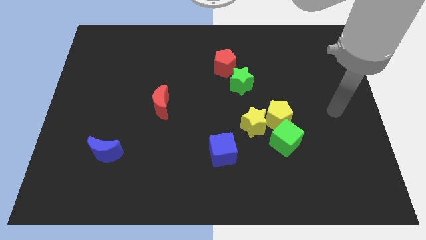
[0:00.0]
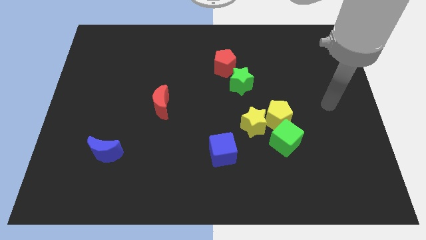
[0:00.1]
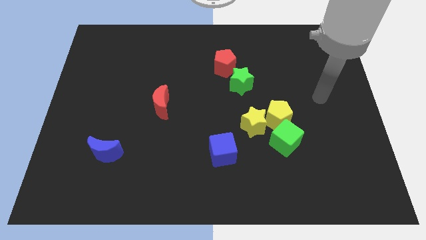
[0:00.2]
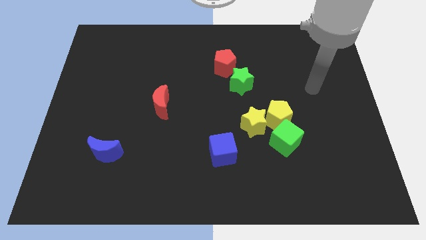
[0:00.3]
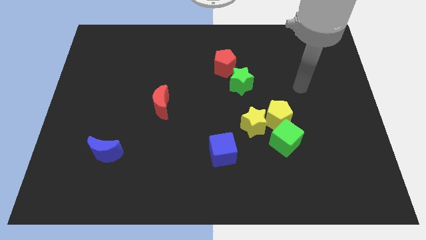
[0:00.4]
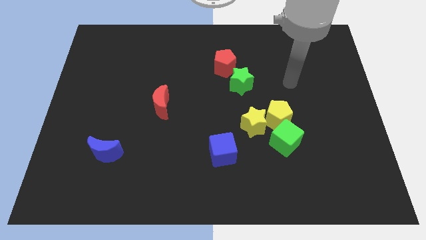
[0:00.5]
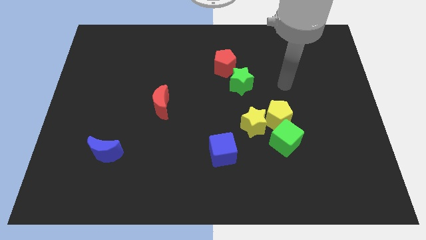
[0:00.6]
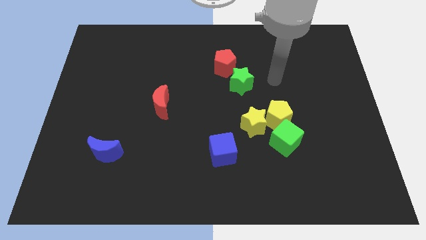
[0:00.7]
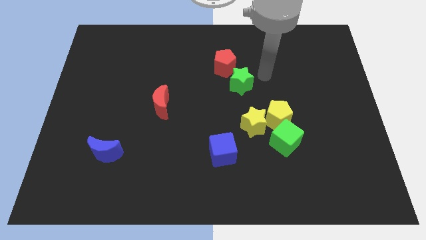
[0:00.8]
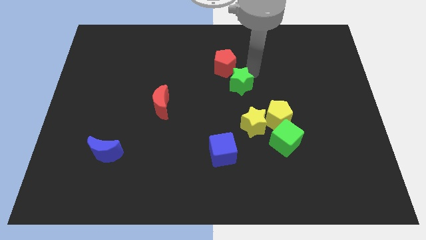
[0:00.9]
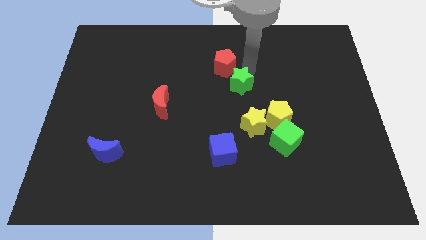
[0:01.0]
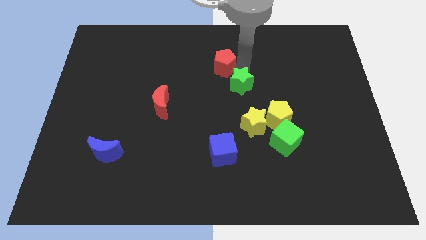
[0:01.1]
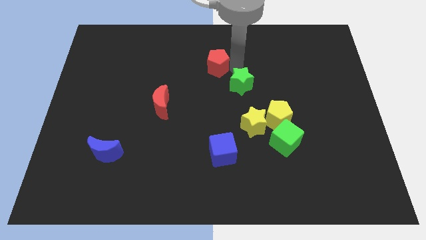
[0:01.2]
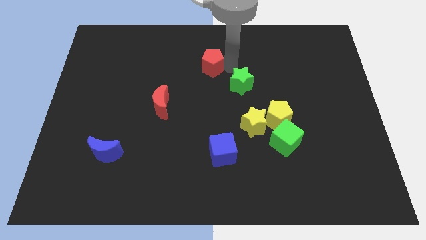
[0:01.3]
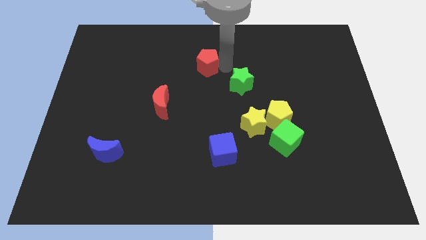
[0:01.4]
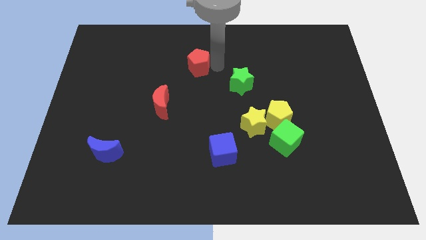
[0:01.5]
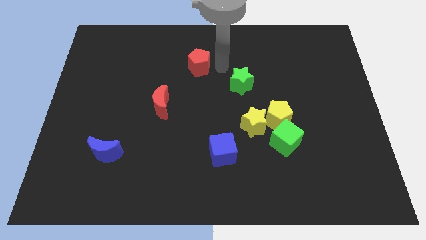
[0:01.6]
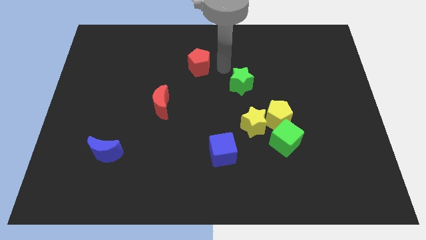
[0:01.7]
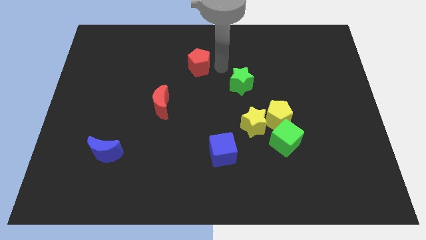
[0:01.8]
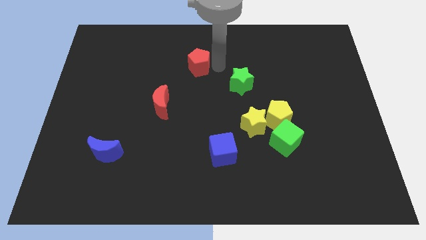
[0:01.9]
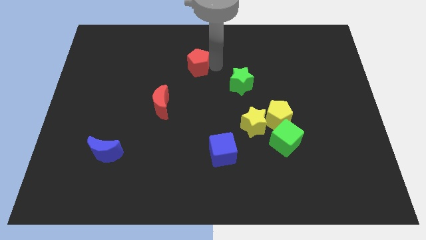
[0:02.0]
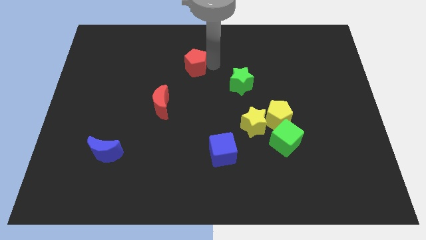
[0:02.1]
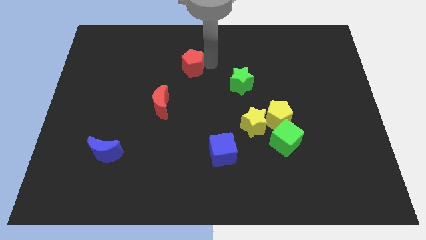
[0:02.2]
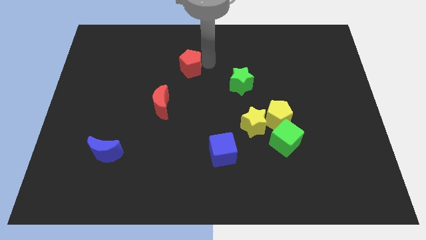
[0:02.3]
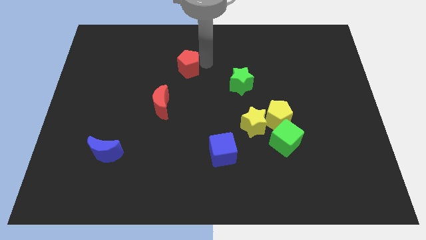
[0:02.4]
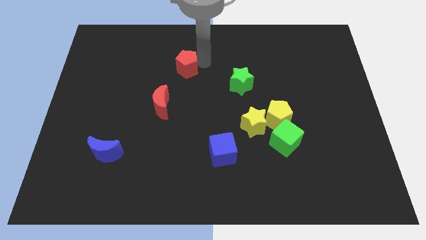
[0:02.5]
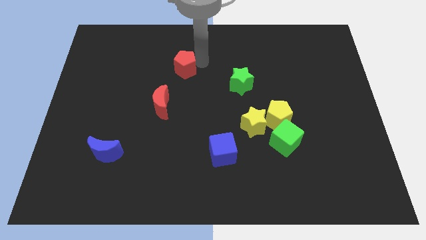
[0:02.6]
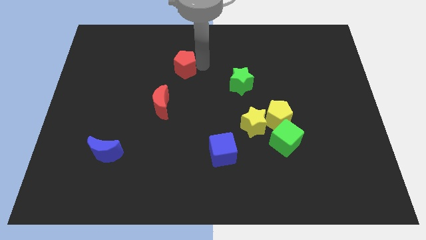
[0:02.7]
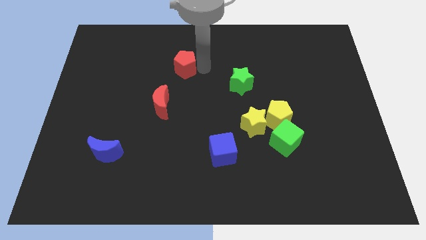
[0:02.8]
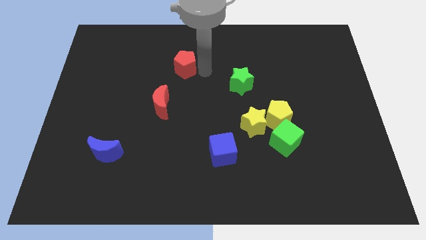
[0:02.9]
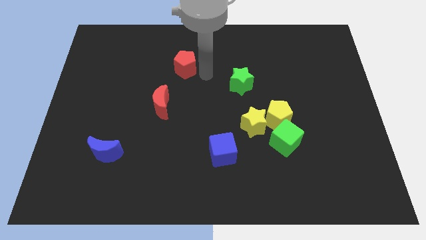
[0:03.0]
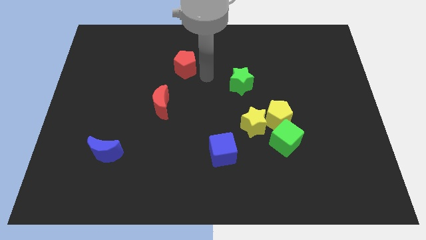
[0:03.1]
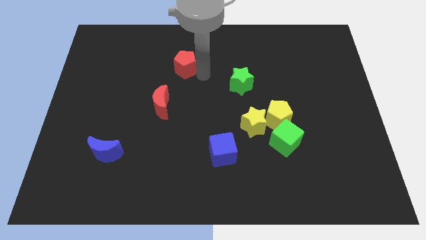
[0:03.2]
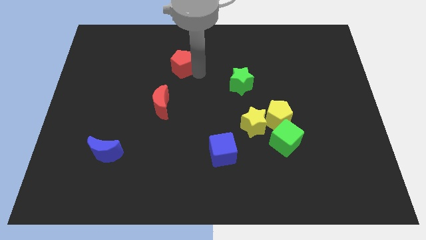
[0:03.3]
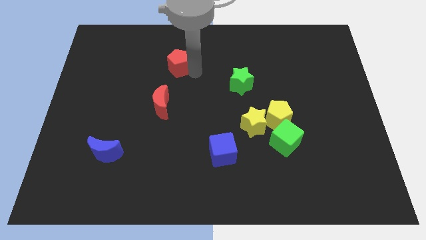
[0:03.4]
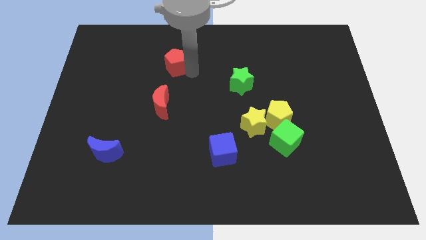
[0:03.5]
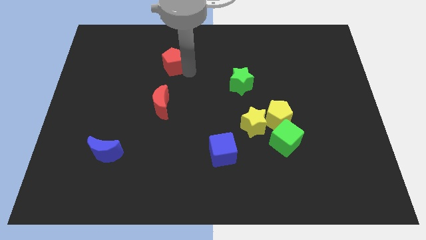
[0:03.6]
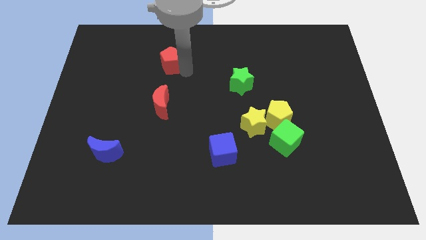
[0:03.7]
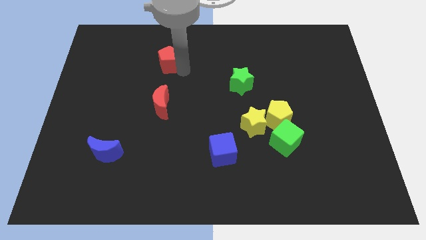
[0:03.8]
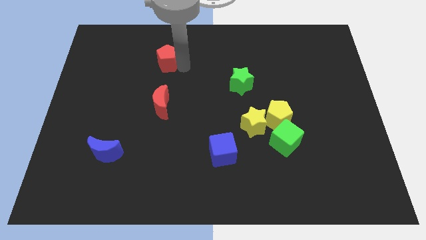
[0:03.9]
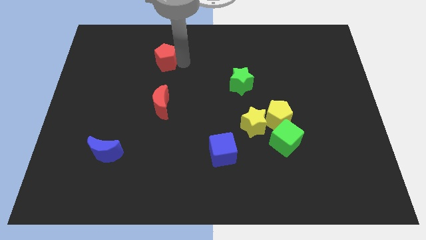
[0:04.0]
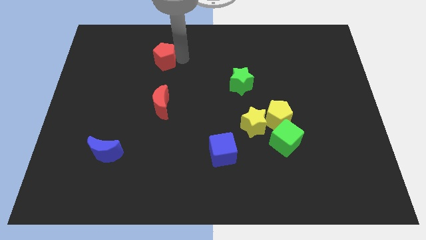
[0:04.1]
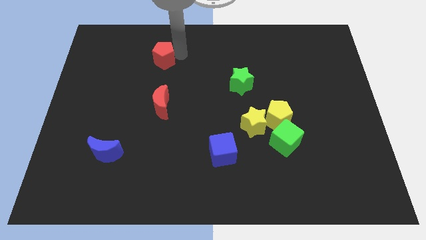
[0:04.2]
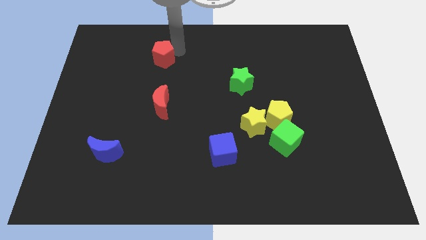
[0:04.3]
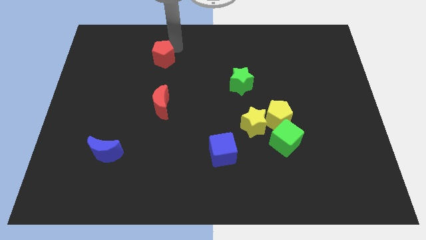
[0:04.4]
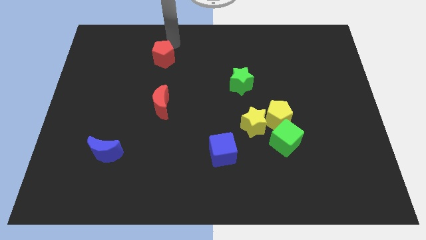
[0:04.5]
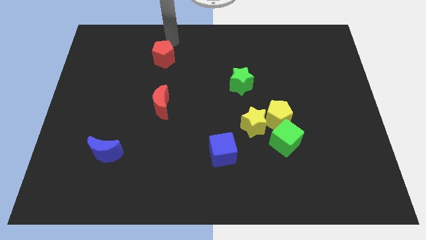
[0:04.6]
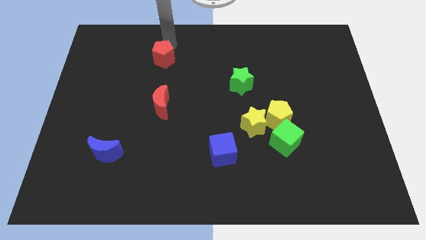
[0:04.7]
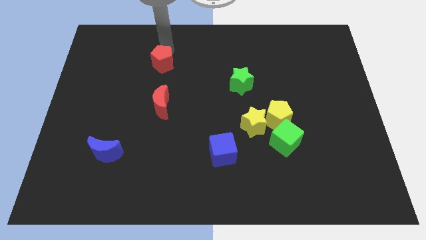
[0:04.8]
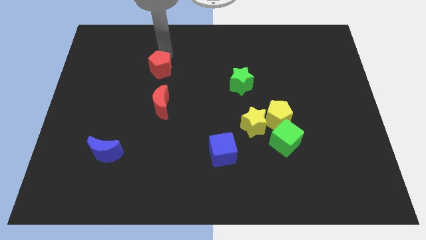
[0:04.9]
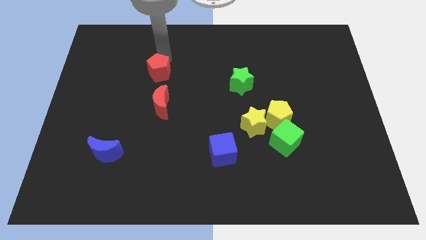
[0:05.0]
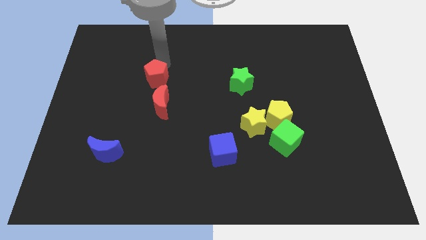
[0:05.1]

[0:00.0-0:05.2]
move the red pentagon to the top left of the red moon

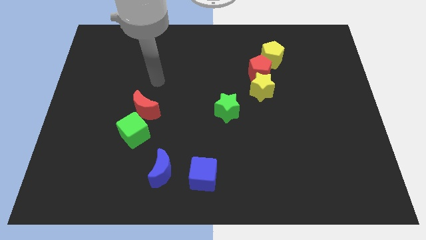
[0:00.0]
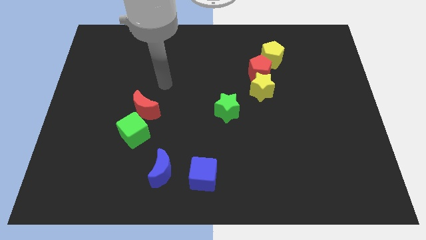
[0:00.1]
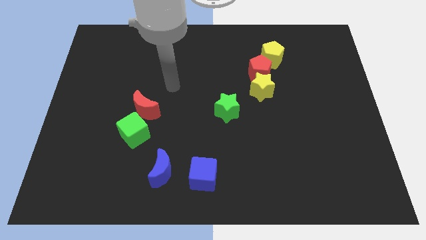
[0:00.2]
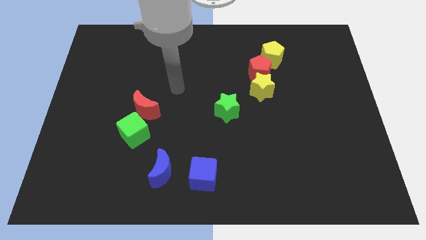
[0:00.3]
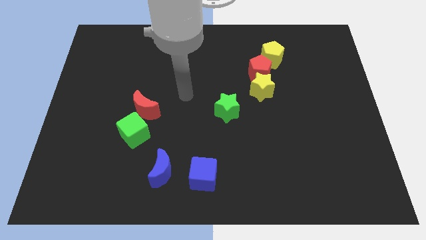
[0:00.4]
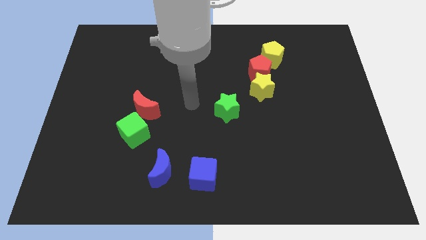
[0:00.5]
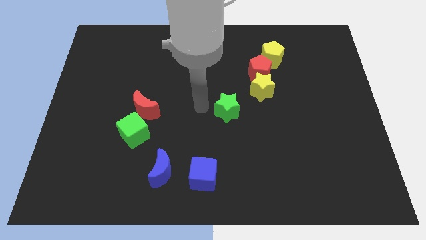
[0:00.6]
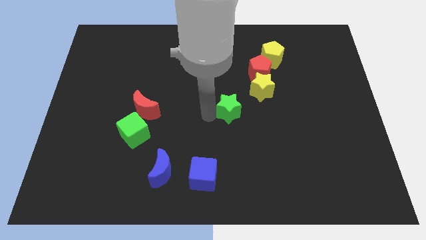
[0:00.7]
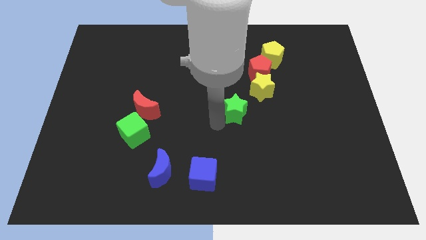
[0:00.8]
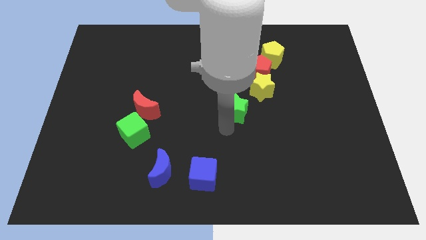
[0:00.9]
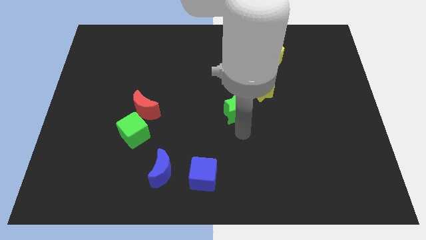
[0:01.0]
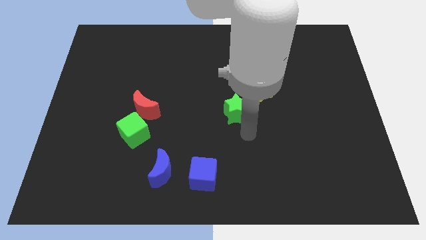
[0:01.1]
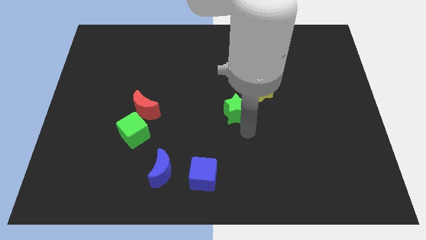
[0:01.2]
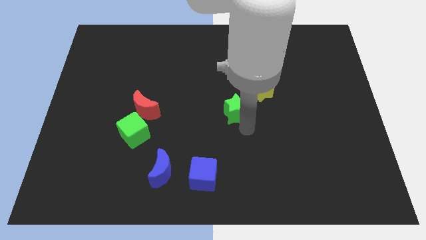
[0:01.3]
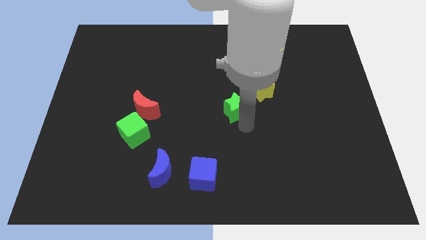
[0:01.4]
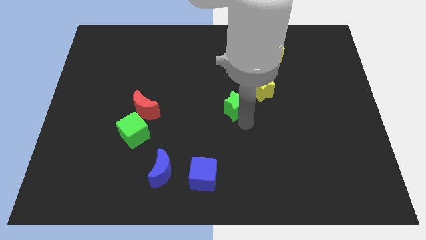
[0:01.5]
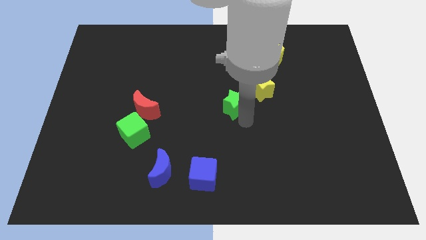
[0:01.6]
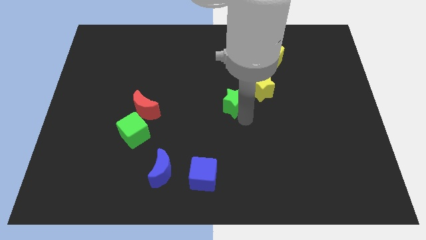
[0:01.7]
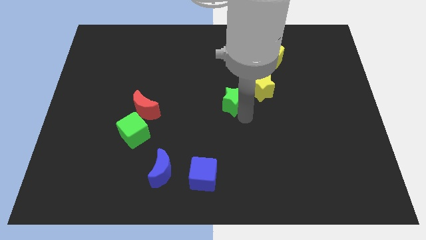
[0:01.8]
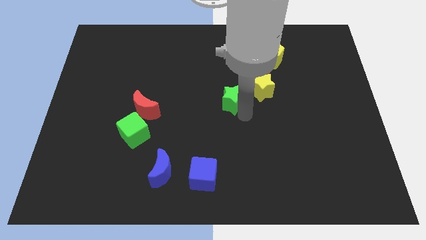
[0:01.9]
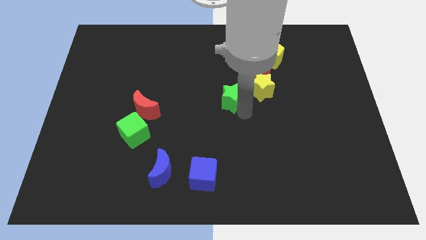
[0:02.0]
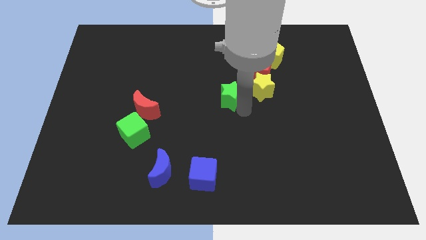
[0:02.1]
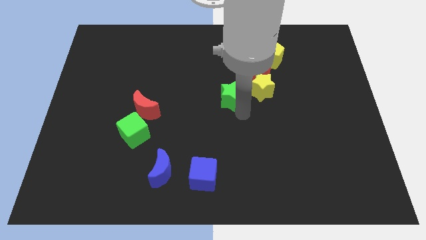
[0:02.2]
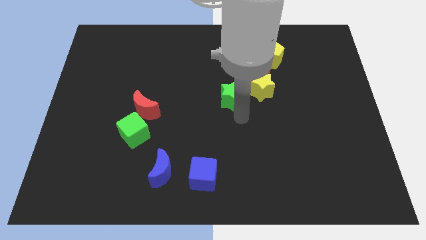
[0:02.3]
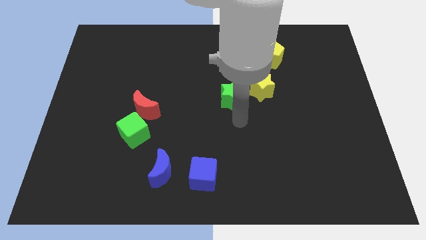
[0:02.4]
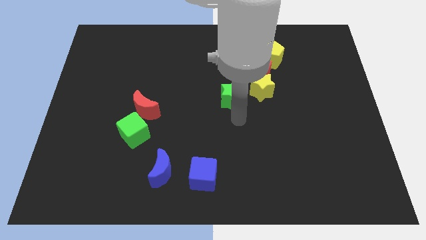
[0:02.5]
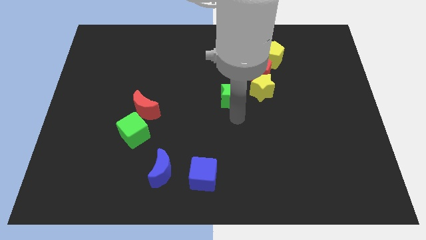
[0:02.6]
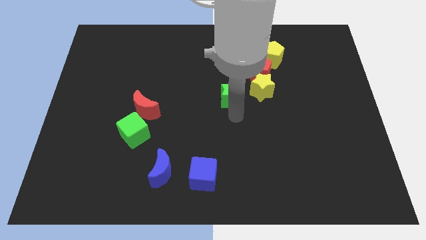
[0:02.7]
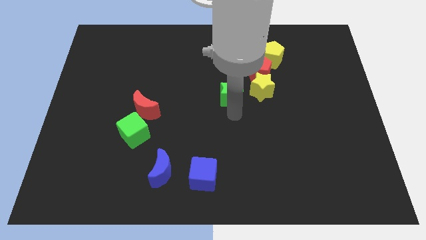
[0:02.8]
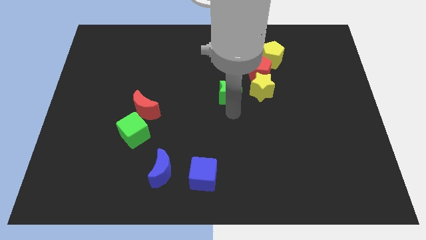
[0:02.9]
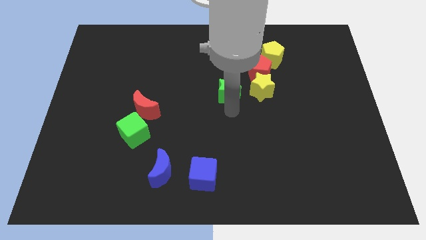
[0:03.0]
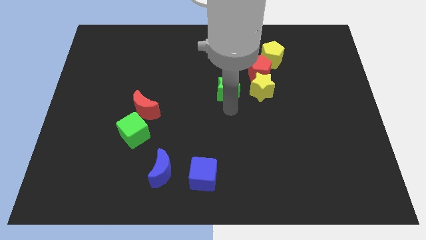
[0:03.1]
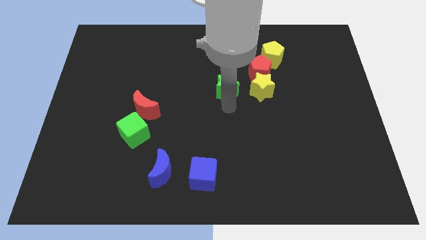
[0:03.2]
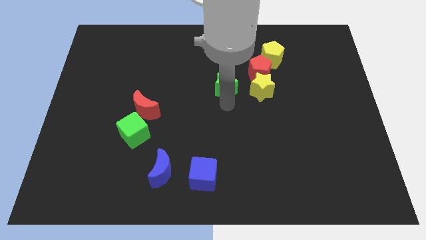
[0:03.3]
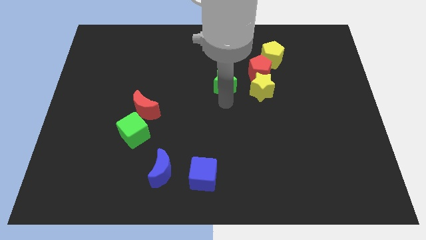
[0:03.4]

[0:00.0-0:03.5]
push the green star to the left side of the red pentagon
